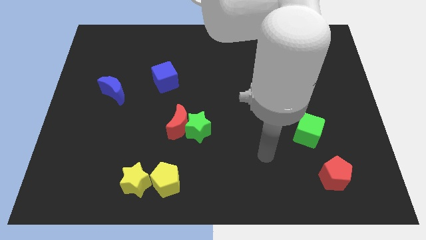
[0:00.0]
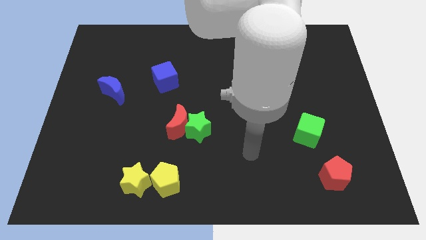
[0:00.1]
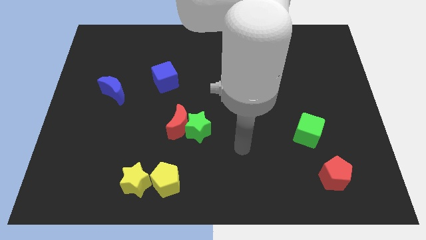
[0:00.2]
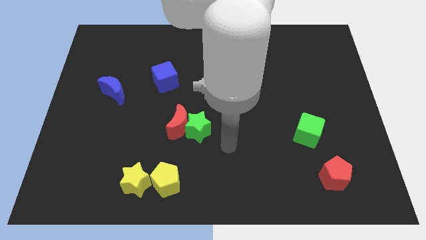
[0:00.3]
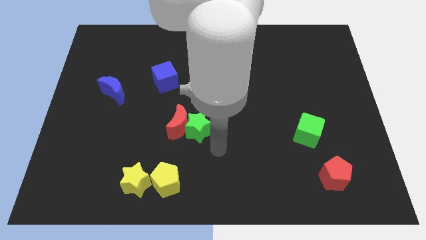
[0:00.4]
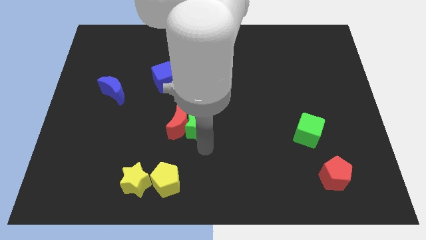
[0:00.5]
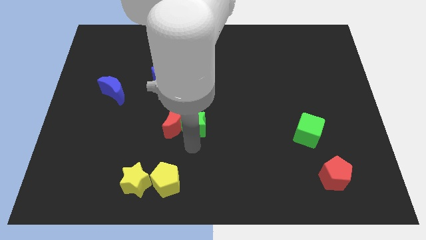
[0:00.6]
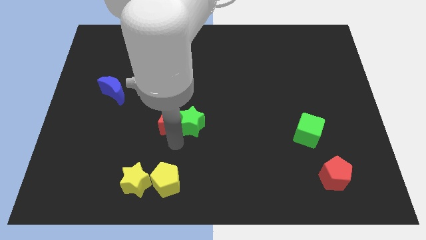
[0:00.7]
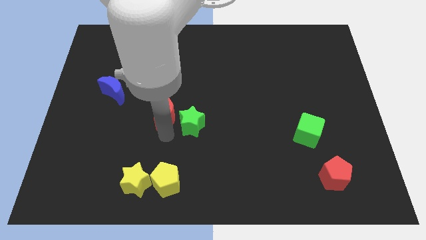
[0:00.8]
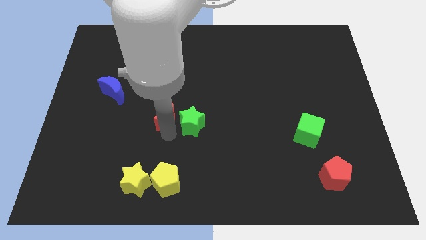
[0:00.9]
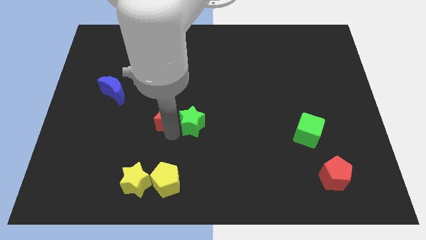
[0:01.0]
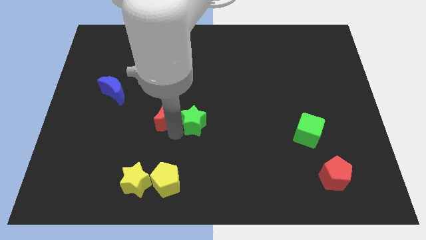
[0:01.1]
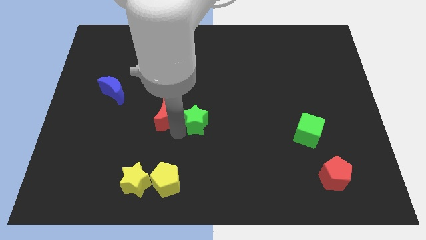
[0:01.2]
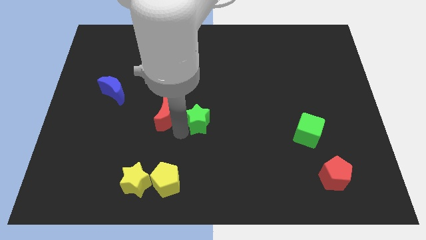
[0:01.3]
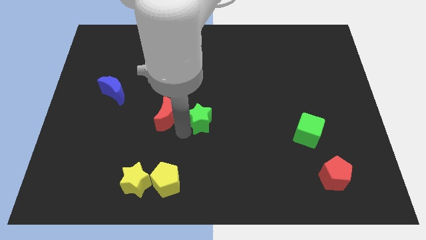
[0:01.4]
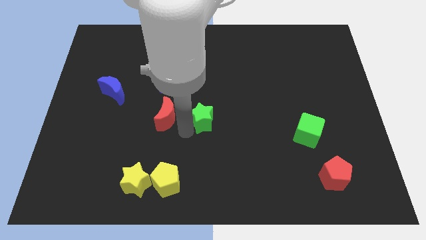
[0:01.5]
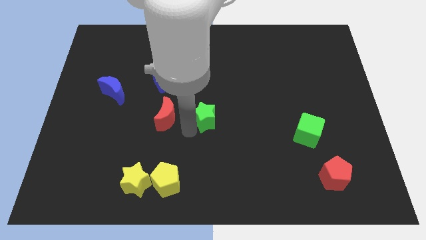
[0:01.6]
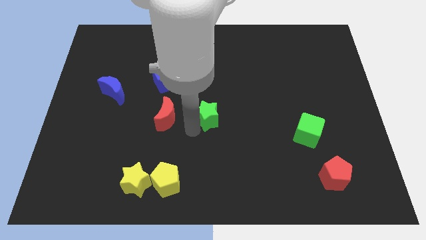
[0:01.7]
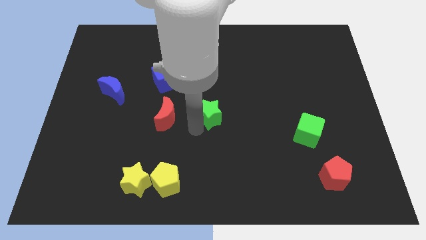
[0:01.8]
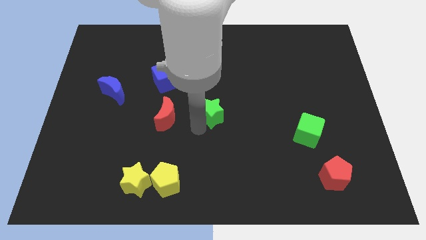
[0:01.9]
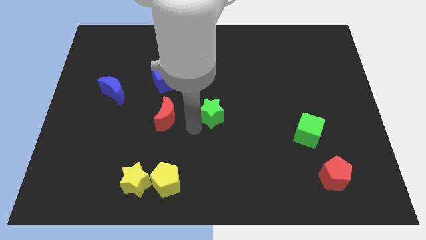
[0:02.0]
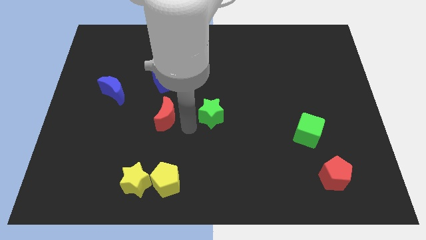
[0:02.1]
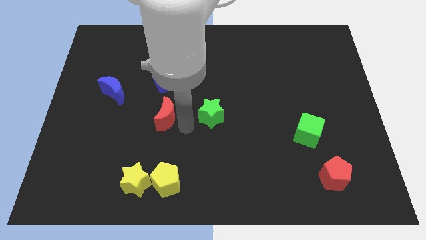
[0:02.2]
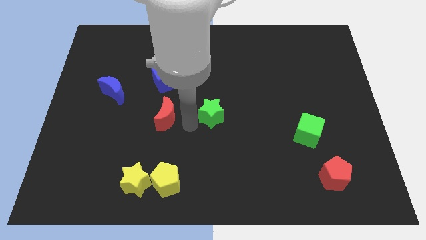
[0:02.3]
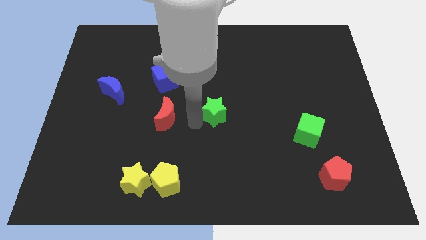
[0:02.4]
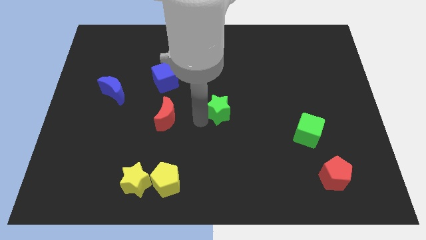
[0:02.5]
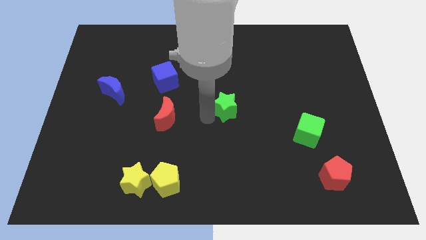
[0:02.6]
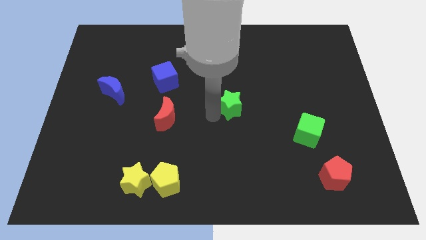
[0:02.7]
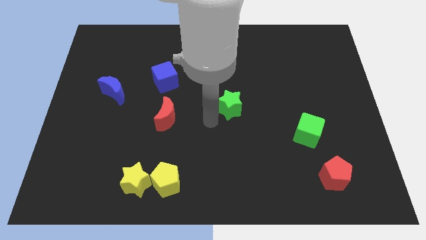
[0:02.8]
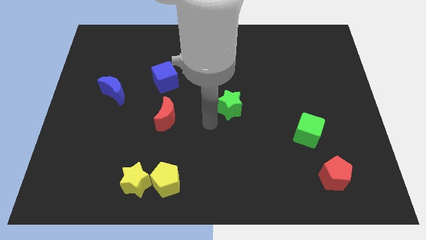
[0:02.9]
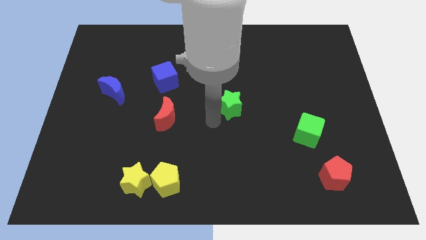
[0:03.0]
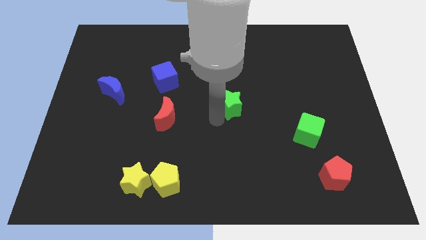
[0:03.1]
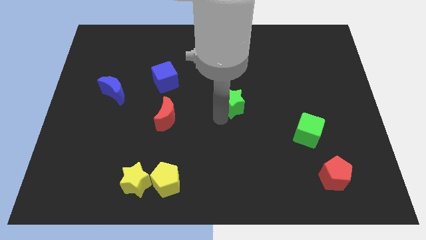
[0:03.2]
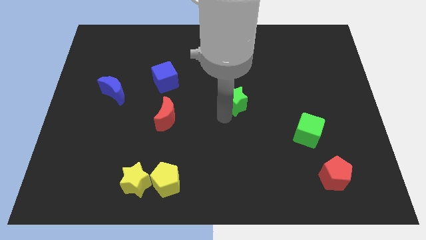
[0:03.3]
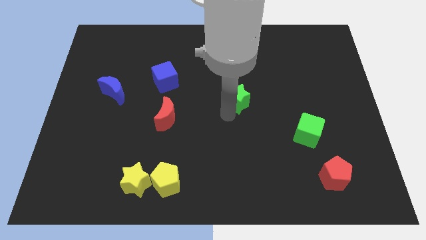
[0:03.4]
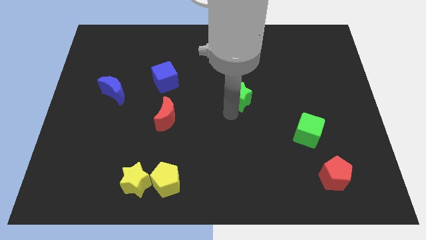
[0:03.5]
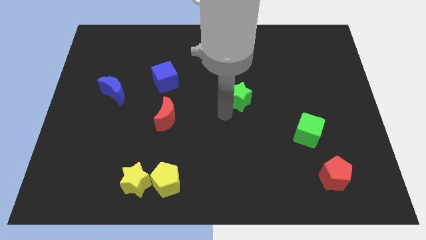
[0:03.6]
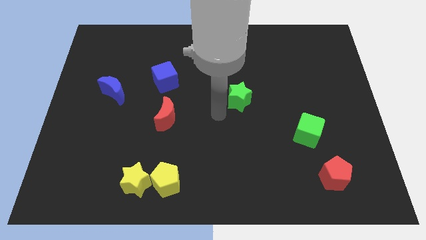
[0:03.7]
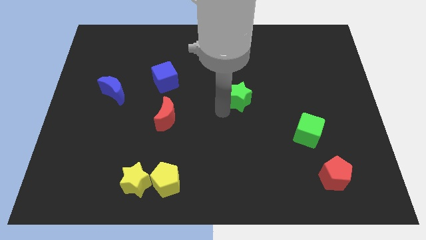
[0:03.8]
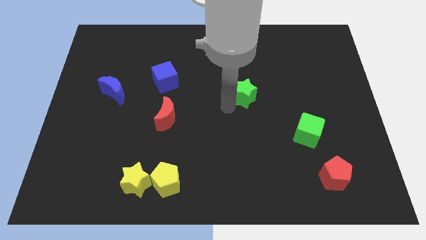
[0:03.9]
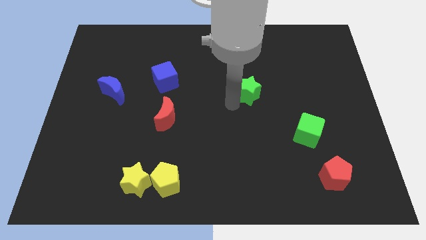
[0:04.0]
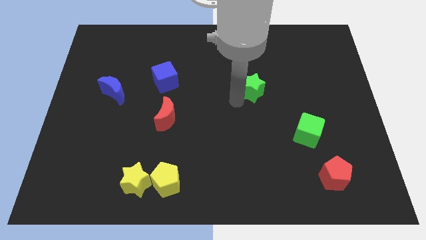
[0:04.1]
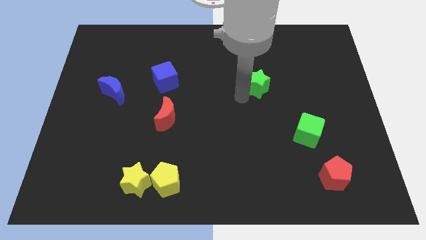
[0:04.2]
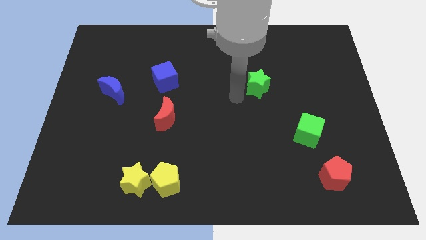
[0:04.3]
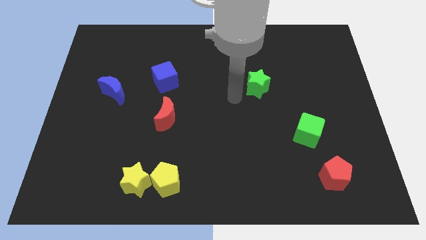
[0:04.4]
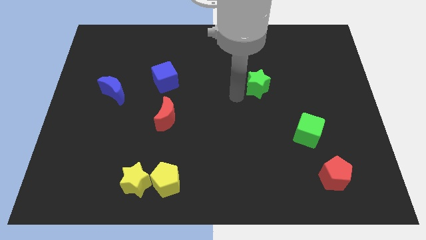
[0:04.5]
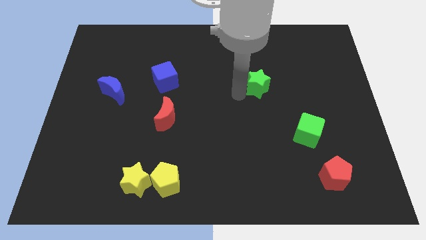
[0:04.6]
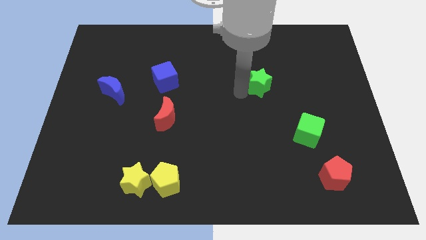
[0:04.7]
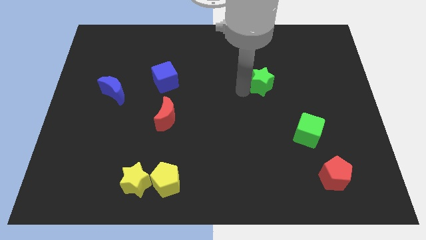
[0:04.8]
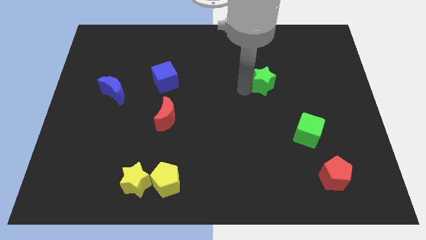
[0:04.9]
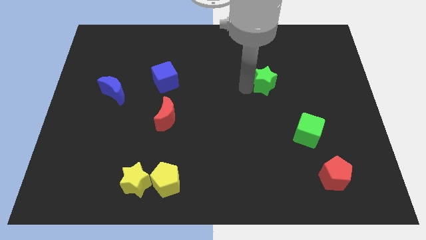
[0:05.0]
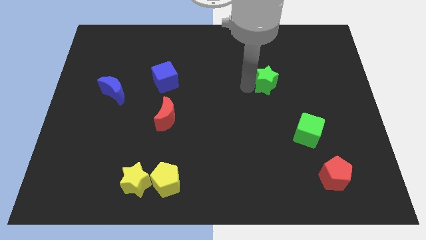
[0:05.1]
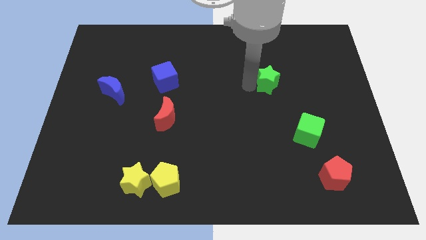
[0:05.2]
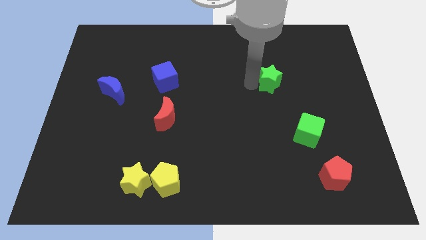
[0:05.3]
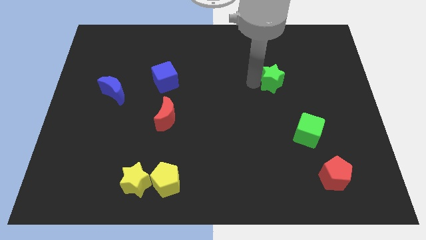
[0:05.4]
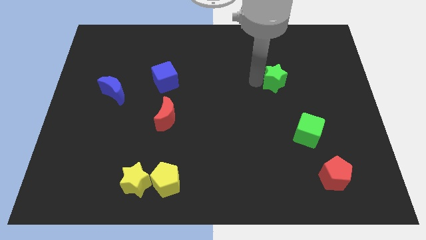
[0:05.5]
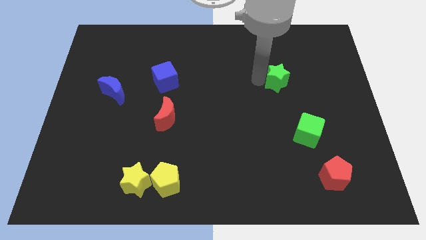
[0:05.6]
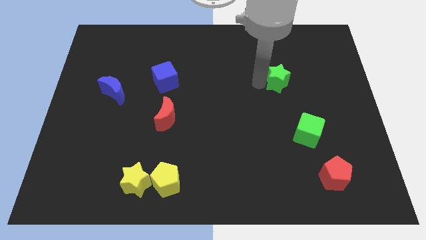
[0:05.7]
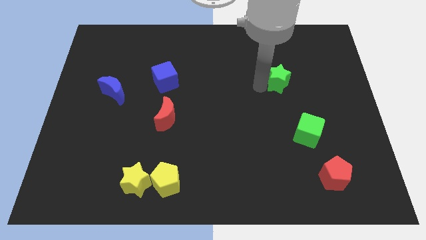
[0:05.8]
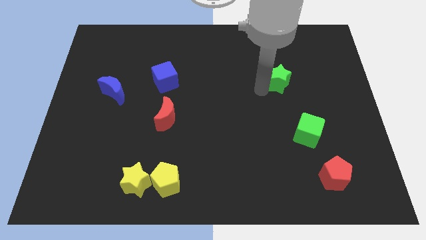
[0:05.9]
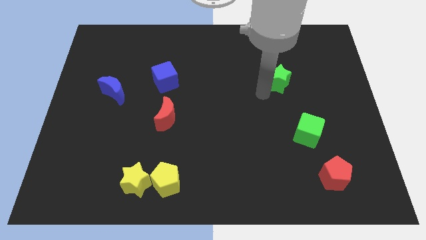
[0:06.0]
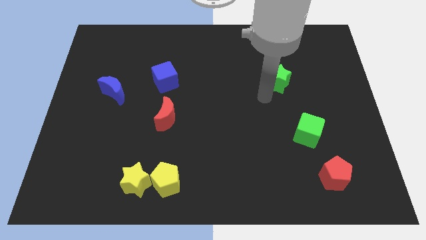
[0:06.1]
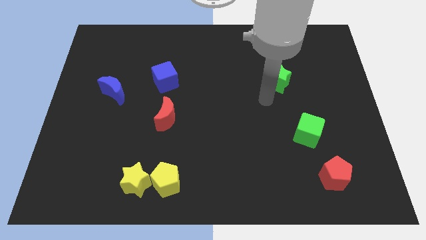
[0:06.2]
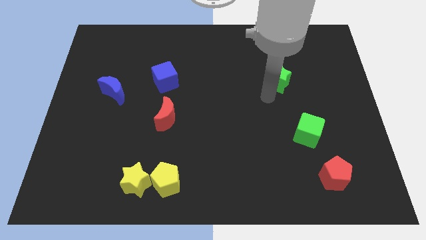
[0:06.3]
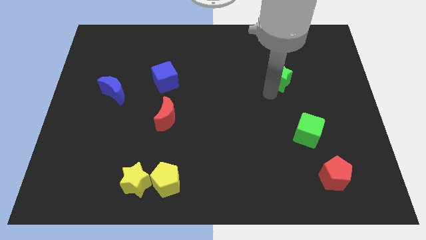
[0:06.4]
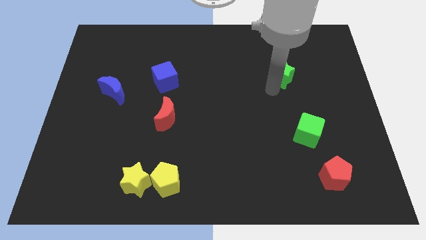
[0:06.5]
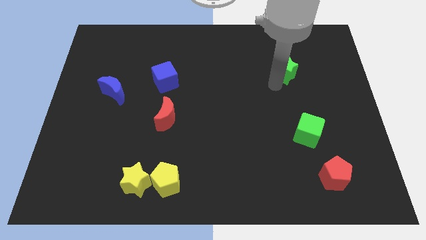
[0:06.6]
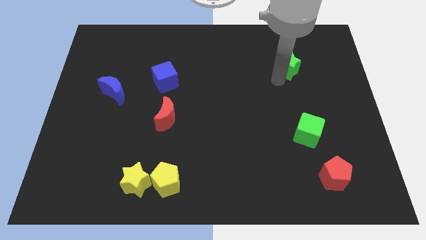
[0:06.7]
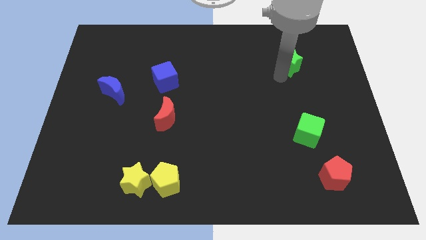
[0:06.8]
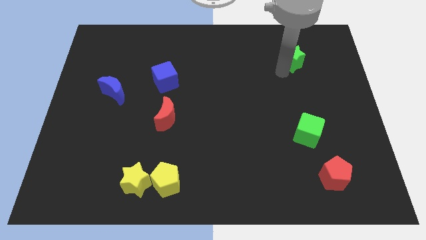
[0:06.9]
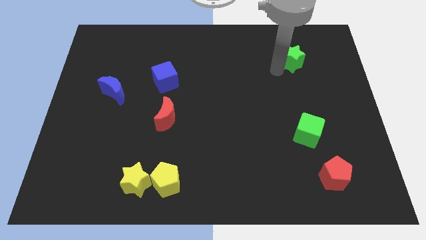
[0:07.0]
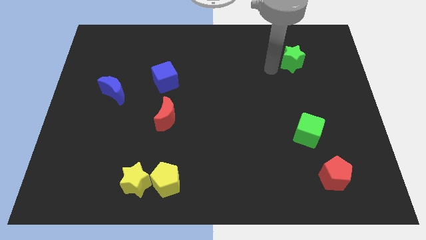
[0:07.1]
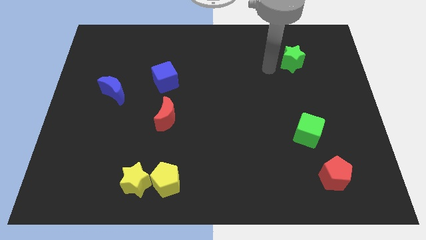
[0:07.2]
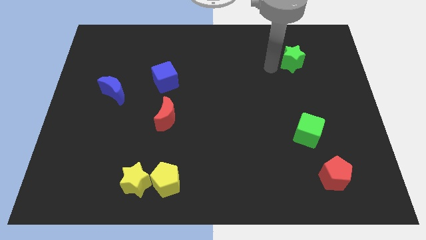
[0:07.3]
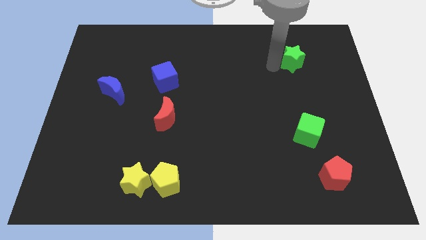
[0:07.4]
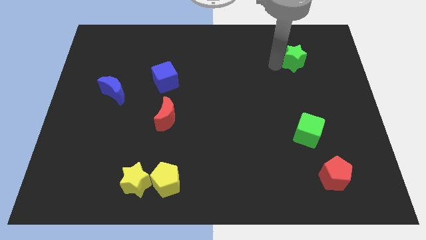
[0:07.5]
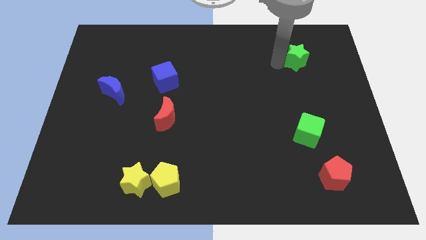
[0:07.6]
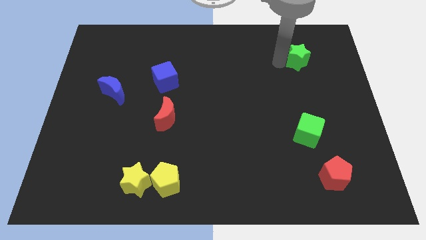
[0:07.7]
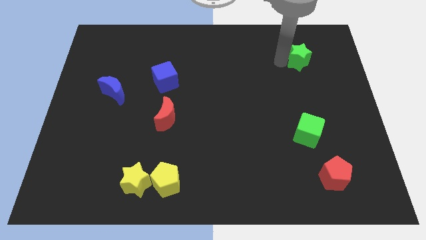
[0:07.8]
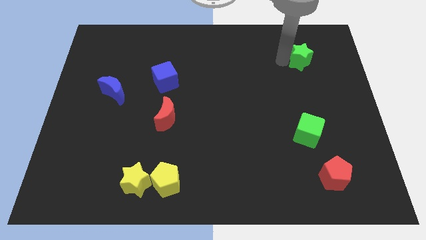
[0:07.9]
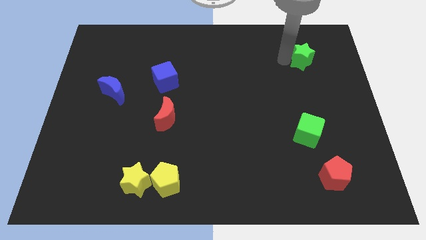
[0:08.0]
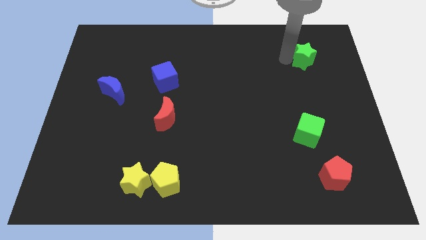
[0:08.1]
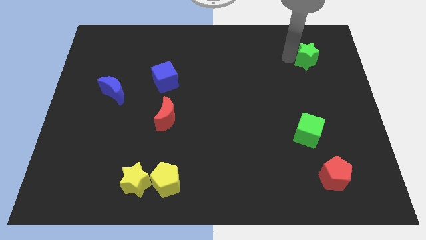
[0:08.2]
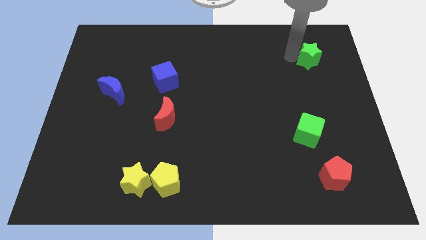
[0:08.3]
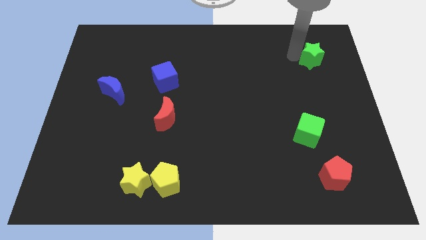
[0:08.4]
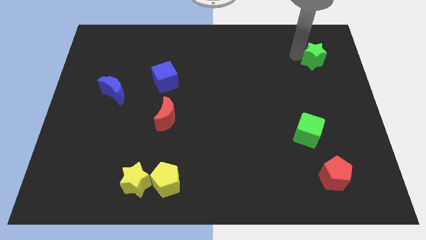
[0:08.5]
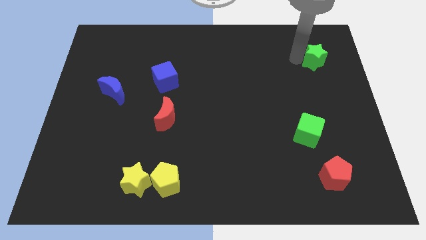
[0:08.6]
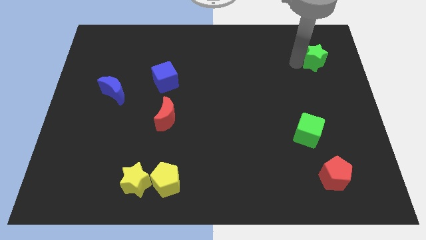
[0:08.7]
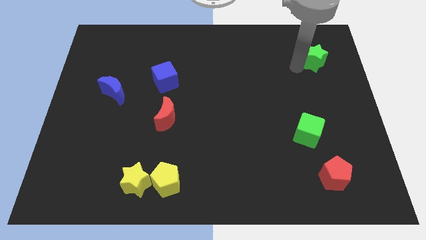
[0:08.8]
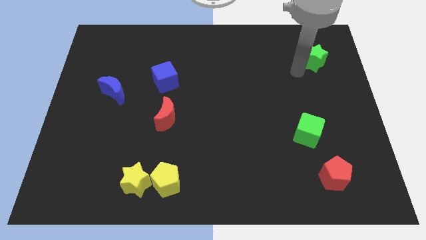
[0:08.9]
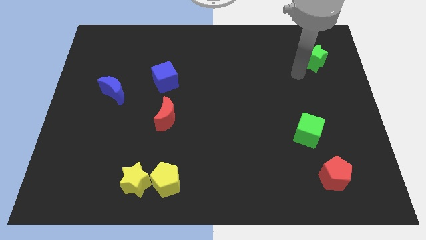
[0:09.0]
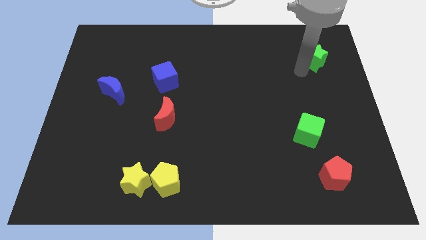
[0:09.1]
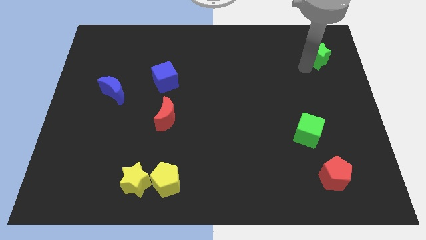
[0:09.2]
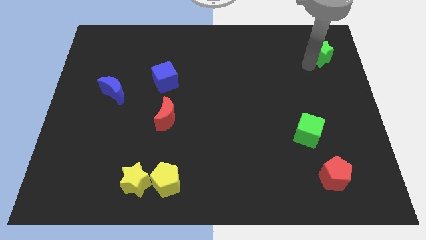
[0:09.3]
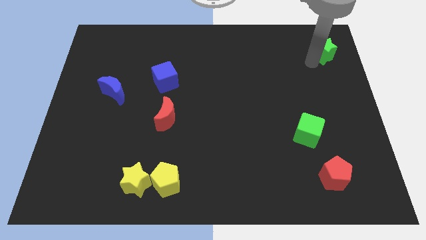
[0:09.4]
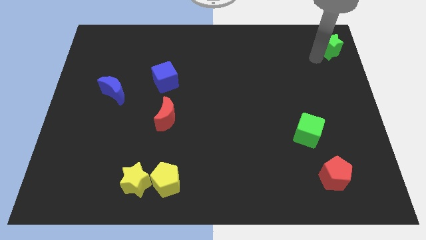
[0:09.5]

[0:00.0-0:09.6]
push the green star to the top right corner
